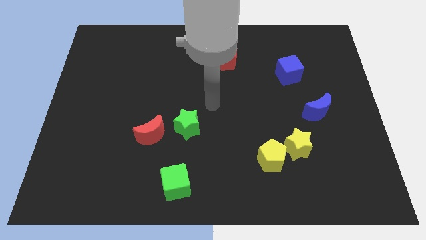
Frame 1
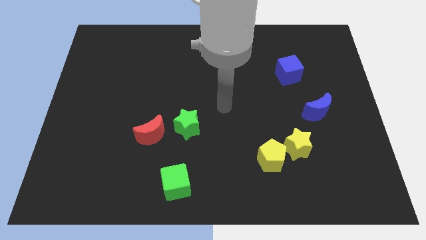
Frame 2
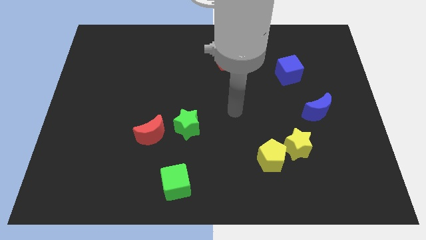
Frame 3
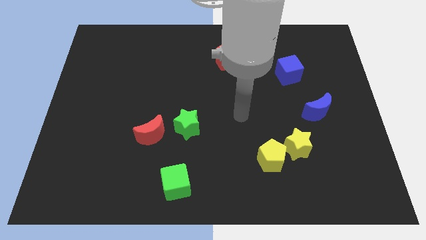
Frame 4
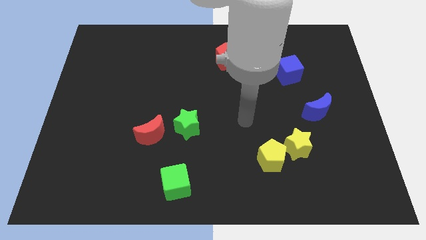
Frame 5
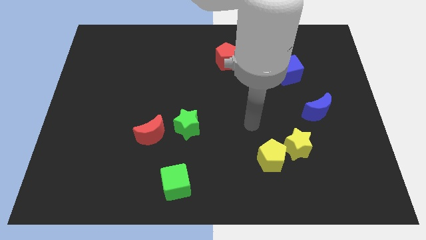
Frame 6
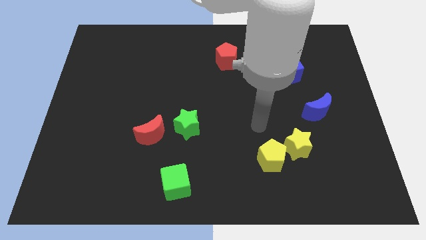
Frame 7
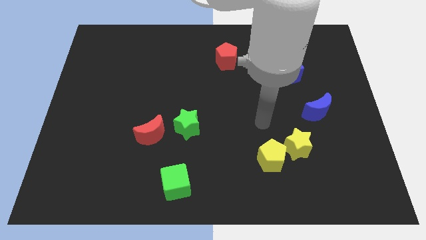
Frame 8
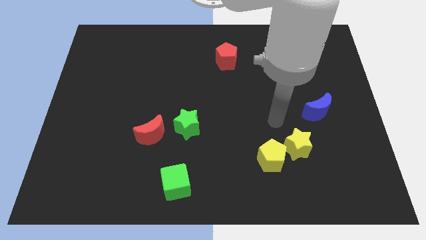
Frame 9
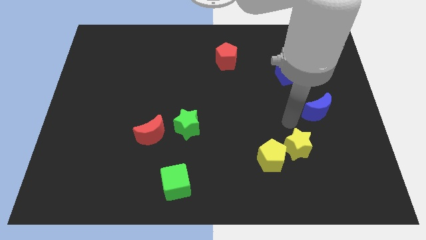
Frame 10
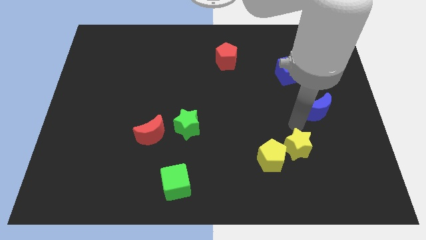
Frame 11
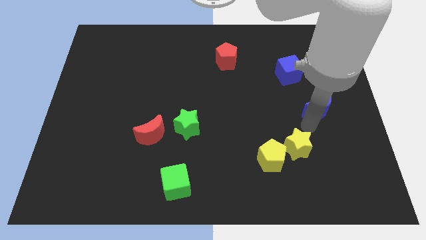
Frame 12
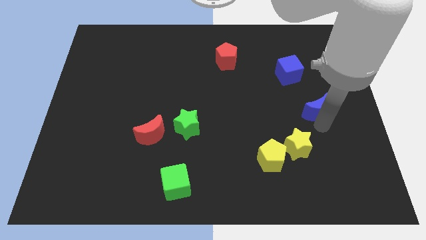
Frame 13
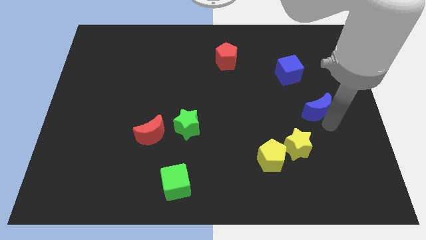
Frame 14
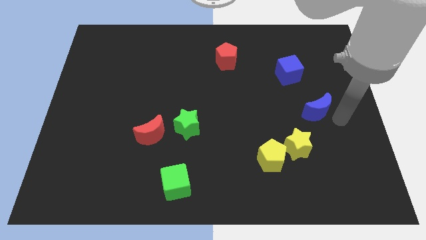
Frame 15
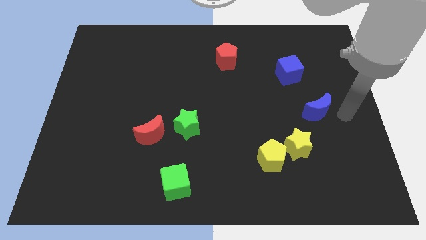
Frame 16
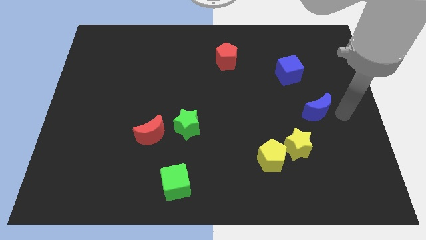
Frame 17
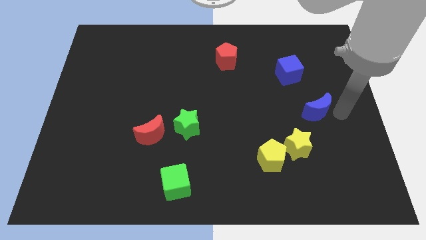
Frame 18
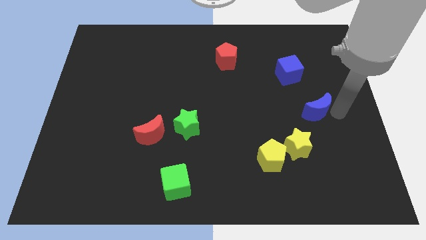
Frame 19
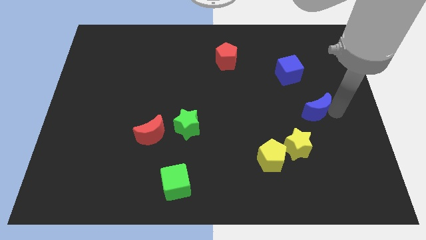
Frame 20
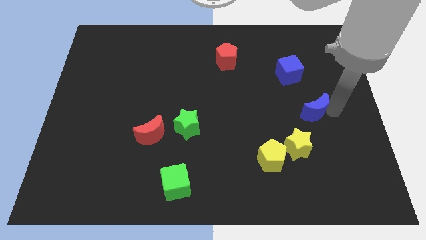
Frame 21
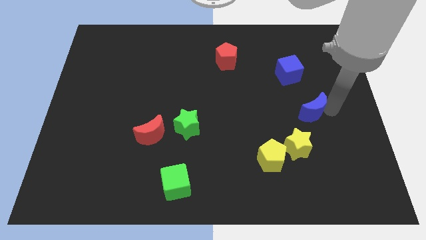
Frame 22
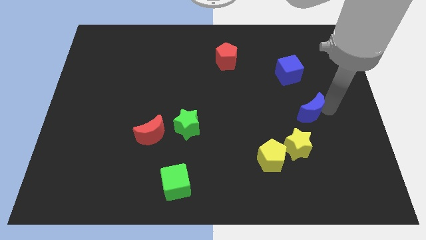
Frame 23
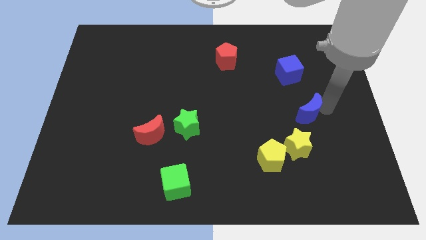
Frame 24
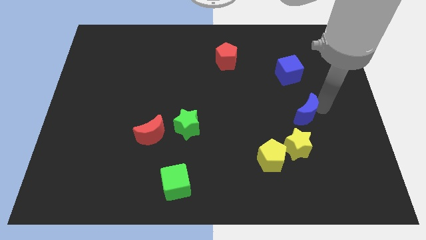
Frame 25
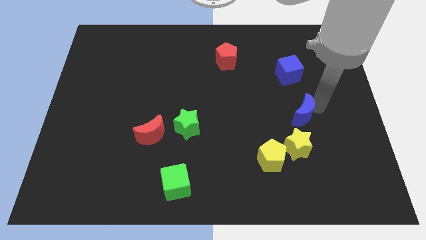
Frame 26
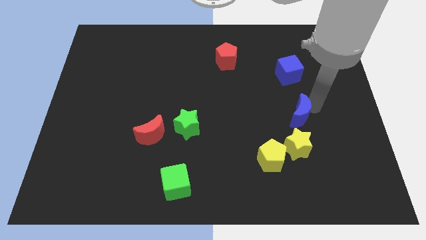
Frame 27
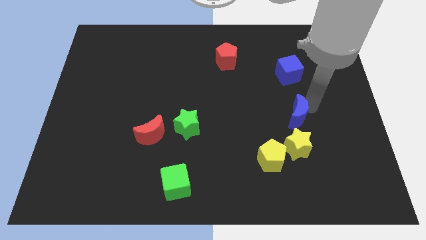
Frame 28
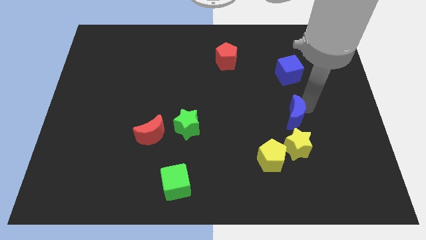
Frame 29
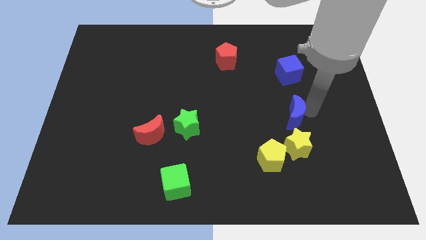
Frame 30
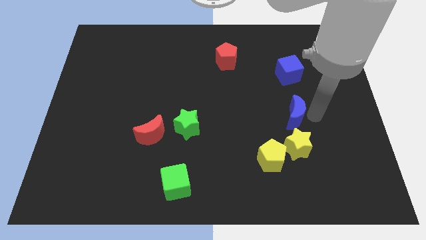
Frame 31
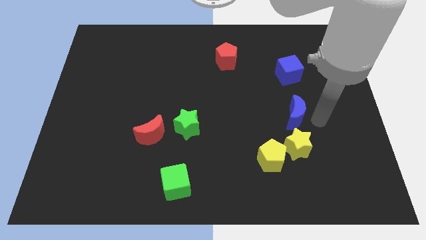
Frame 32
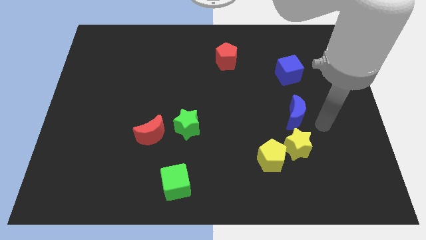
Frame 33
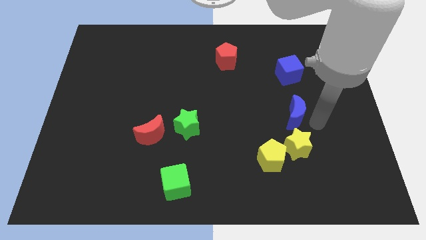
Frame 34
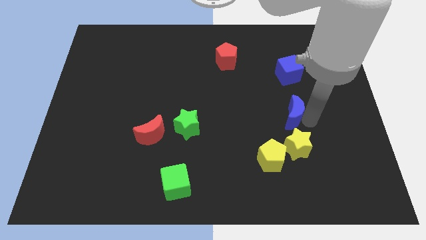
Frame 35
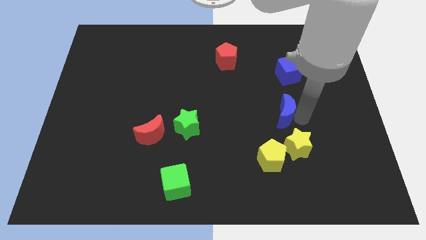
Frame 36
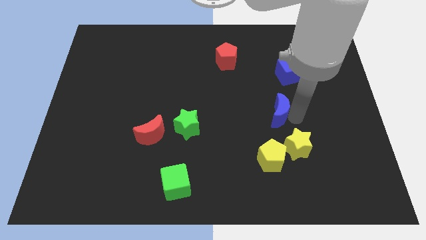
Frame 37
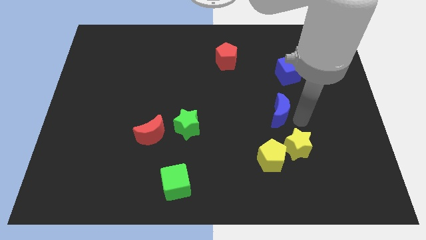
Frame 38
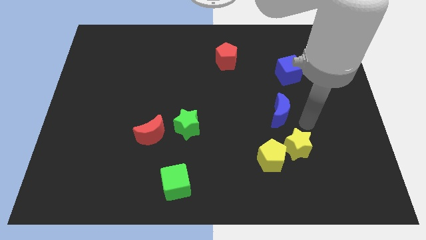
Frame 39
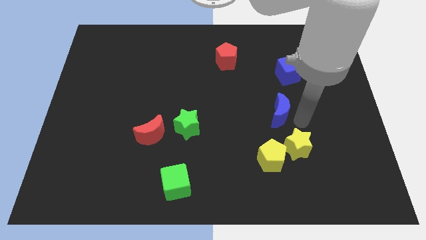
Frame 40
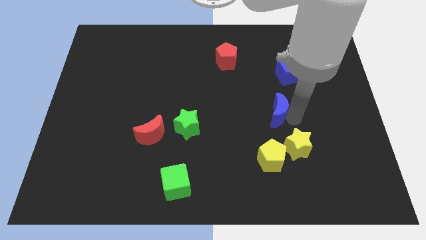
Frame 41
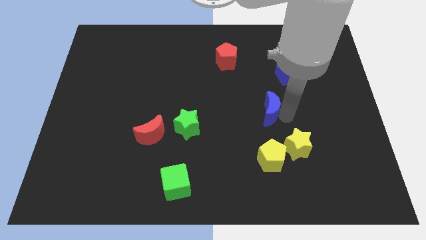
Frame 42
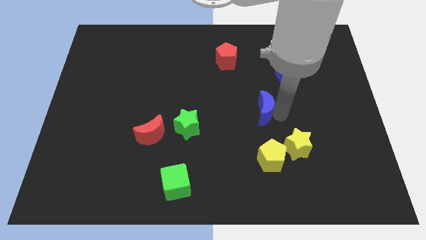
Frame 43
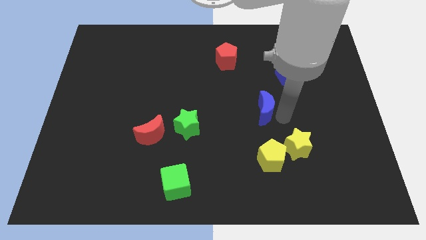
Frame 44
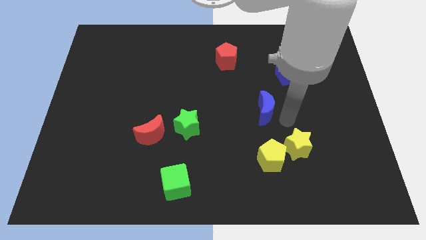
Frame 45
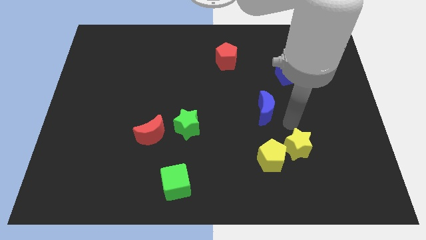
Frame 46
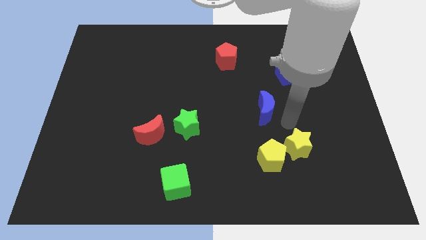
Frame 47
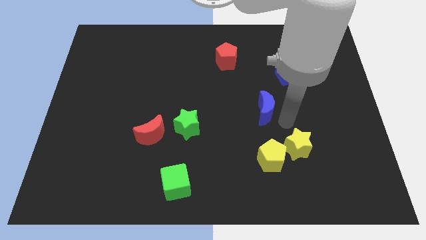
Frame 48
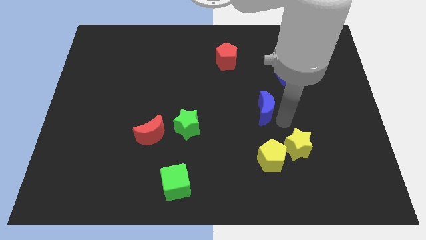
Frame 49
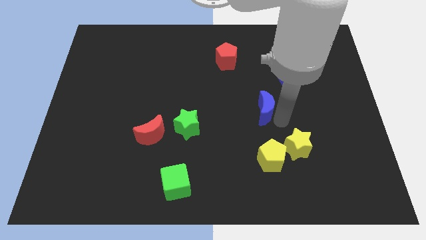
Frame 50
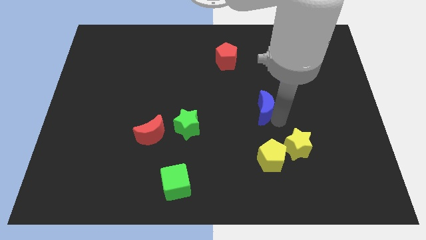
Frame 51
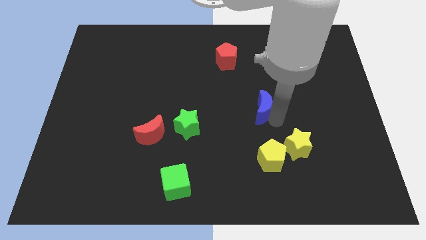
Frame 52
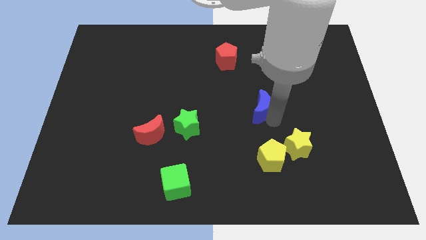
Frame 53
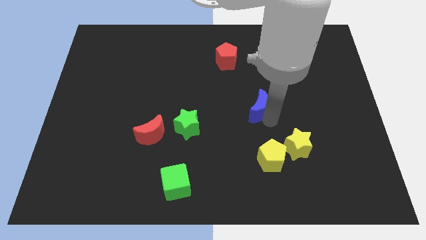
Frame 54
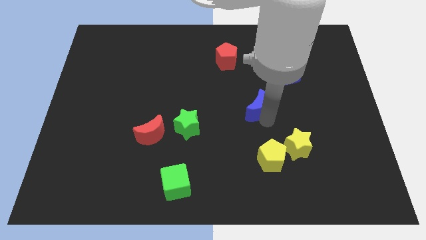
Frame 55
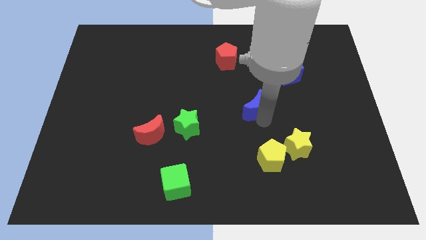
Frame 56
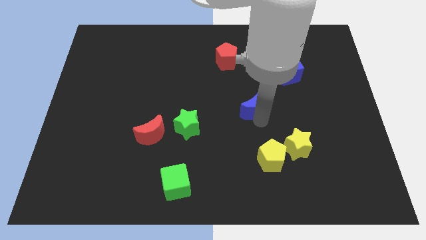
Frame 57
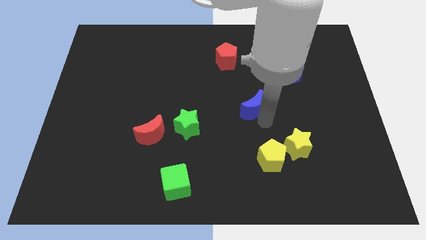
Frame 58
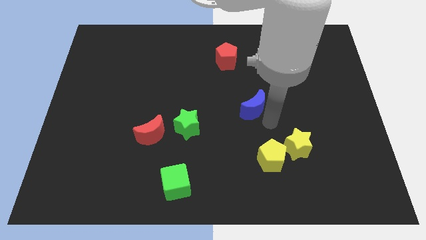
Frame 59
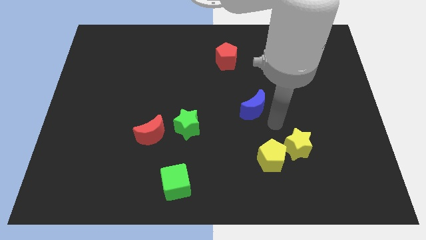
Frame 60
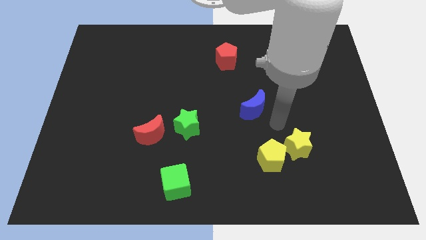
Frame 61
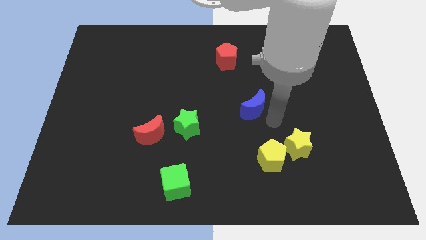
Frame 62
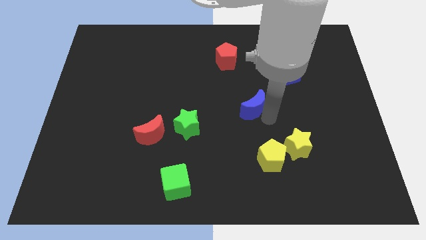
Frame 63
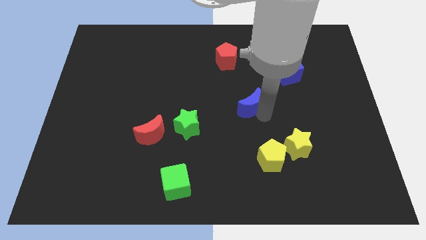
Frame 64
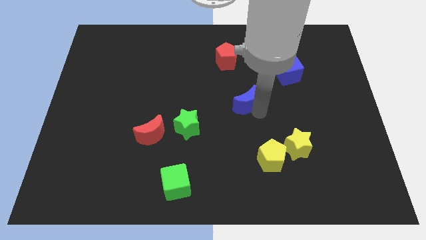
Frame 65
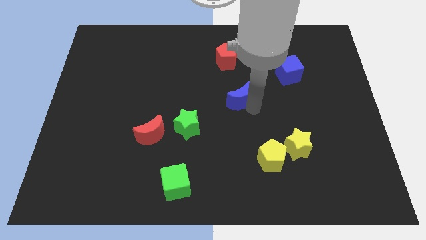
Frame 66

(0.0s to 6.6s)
slide the blue moon below the red pentagon

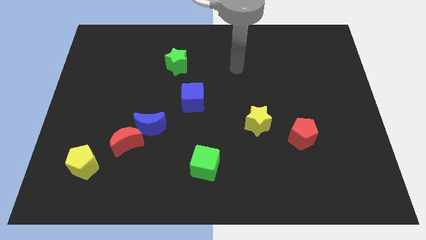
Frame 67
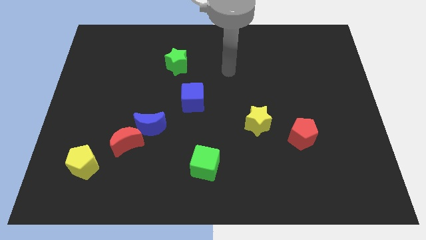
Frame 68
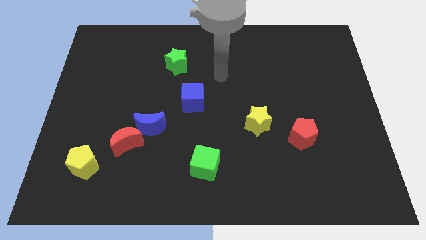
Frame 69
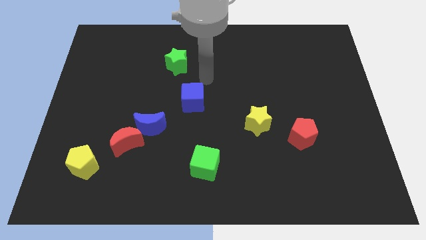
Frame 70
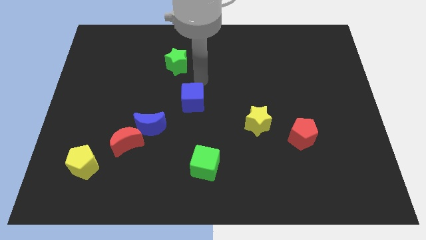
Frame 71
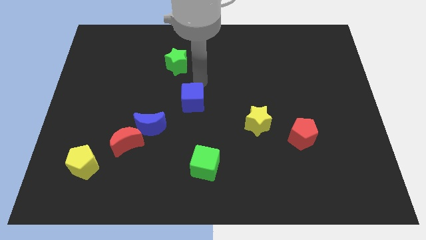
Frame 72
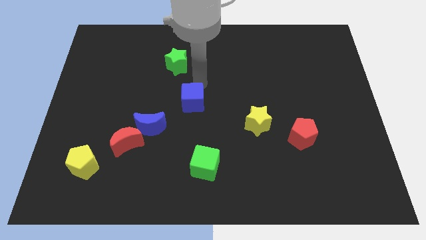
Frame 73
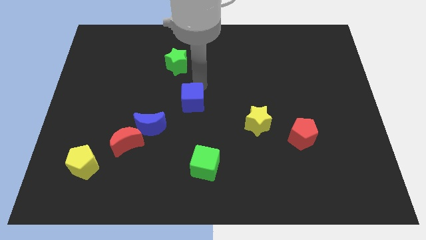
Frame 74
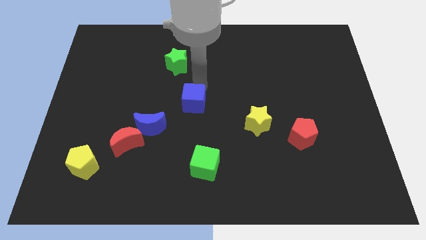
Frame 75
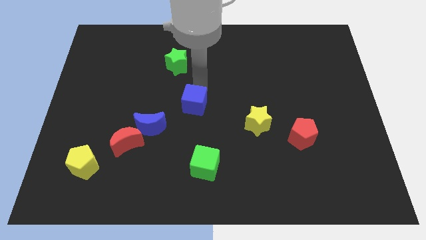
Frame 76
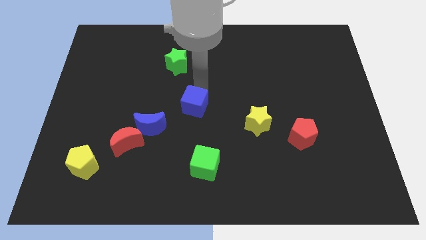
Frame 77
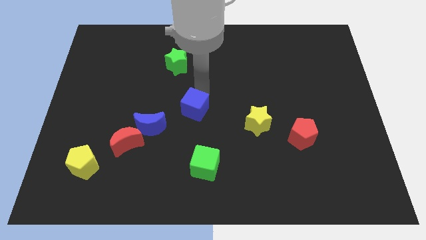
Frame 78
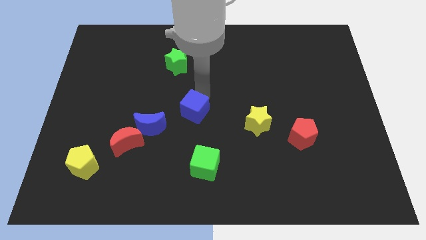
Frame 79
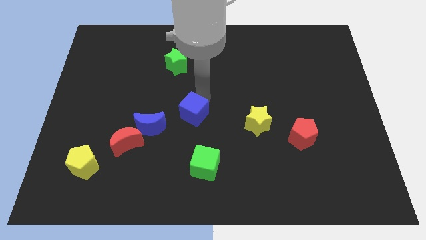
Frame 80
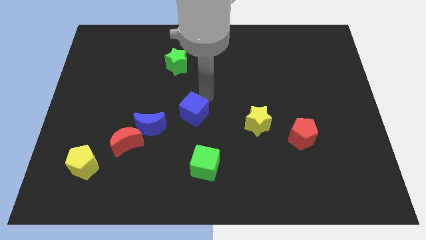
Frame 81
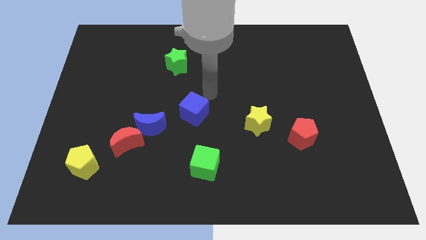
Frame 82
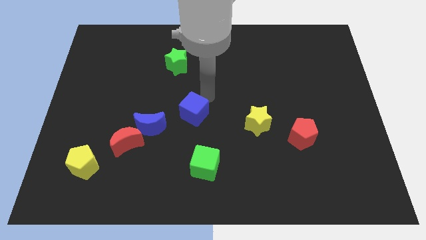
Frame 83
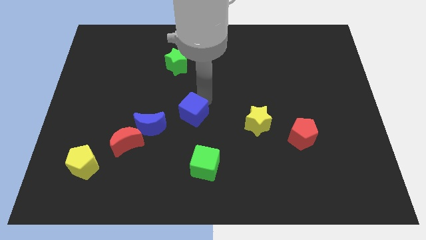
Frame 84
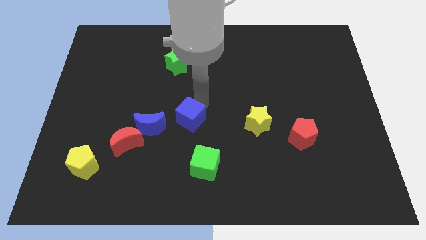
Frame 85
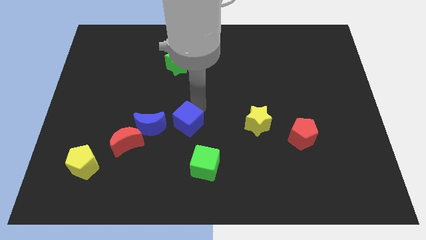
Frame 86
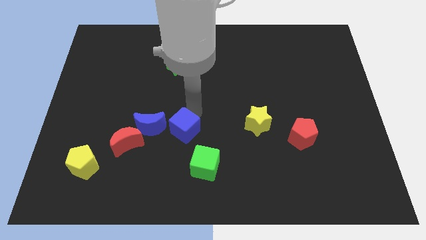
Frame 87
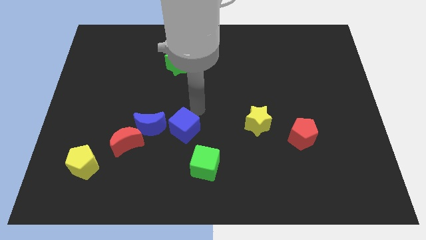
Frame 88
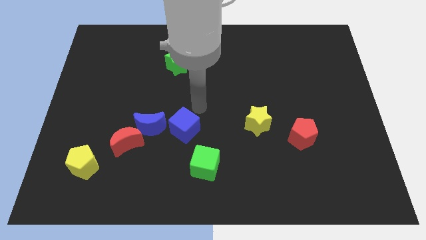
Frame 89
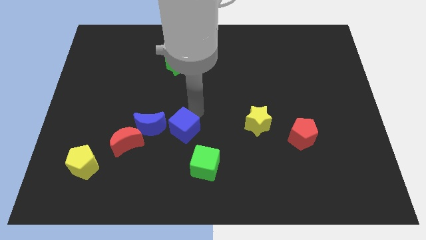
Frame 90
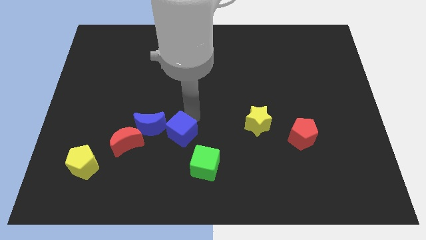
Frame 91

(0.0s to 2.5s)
move the blue cube to the bottom right of the blue moon
